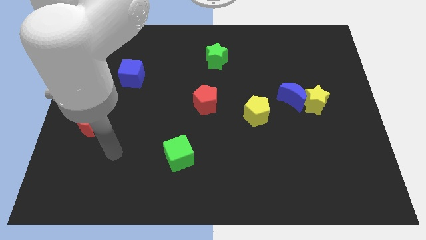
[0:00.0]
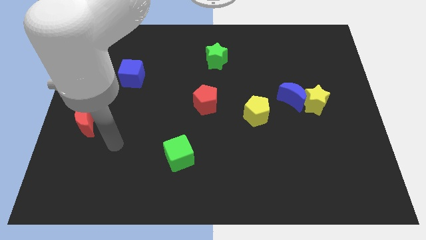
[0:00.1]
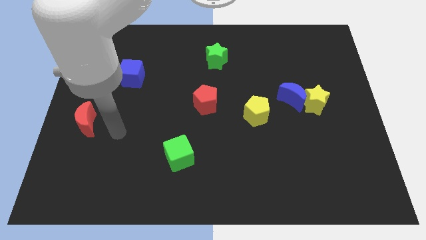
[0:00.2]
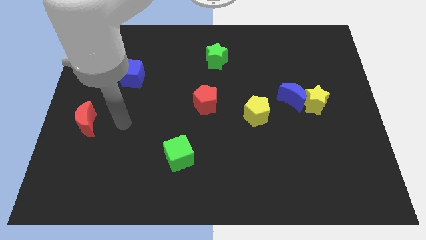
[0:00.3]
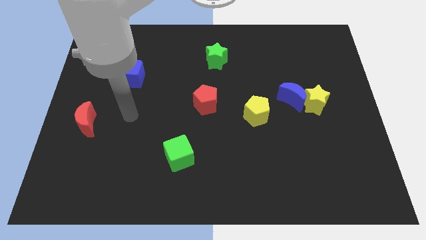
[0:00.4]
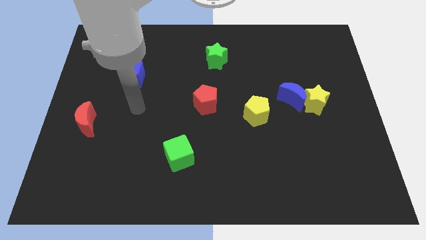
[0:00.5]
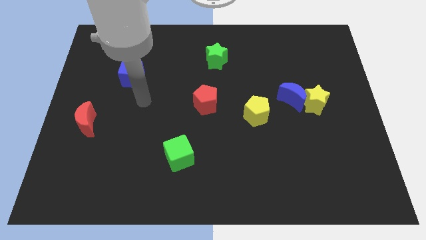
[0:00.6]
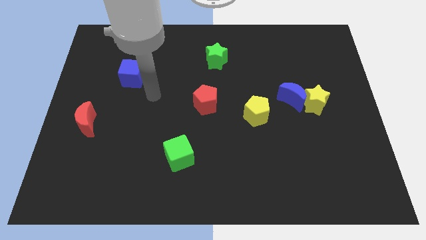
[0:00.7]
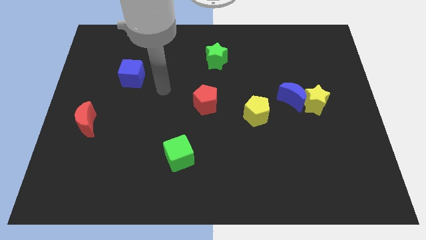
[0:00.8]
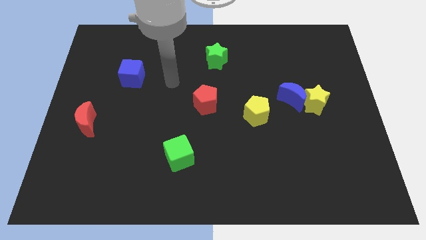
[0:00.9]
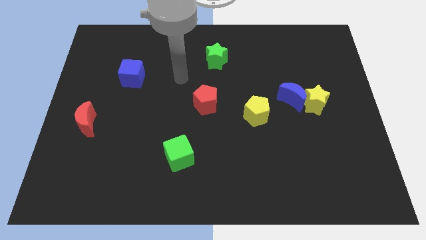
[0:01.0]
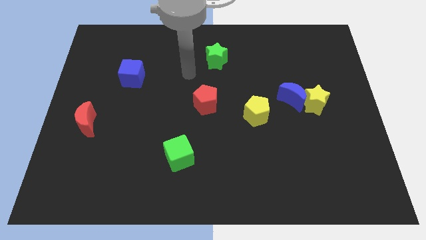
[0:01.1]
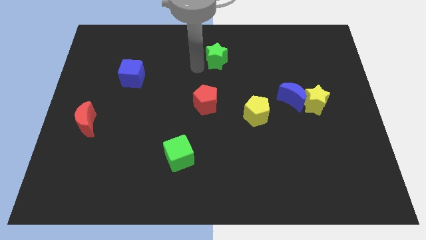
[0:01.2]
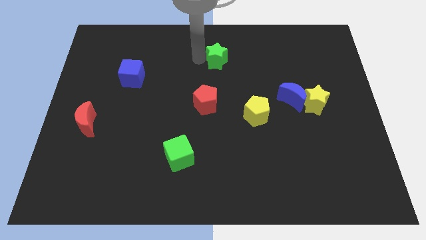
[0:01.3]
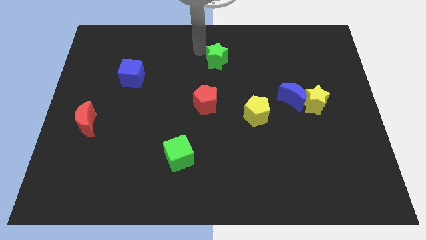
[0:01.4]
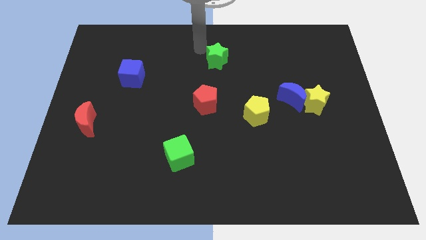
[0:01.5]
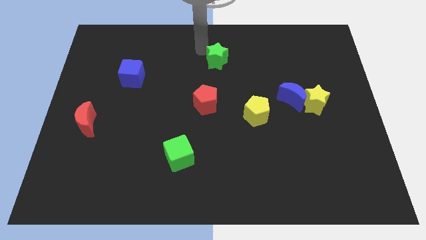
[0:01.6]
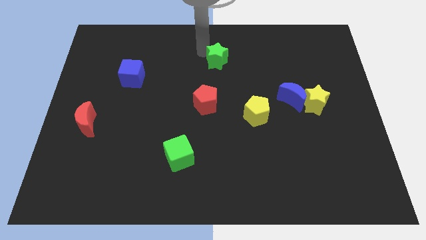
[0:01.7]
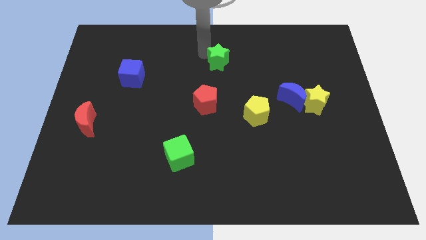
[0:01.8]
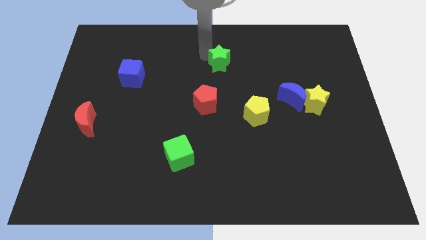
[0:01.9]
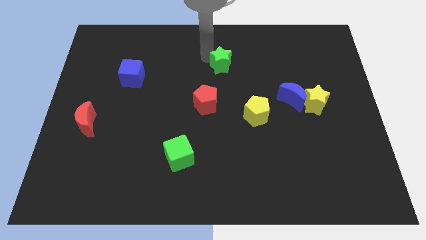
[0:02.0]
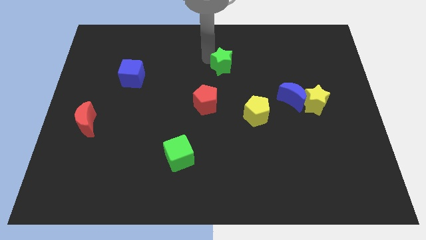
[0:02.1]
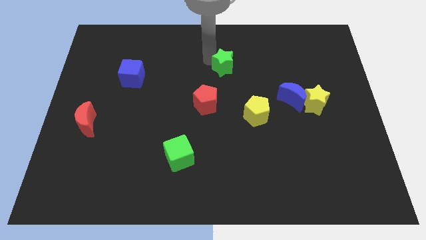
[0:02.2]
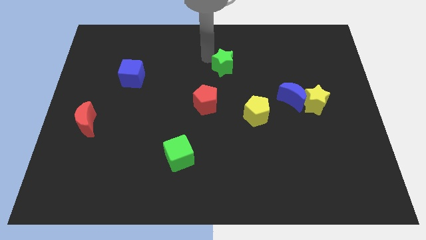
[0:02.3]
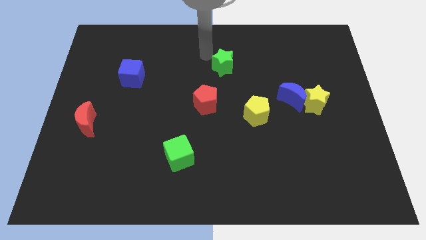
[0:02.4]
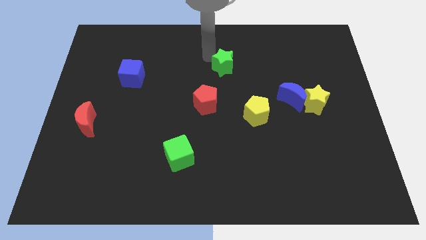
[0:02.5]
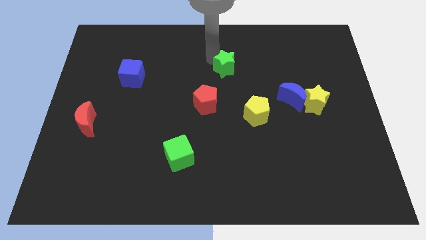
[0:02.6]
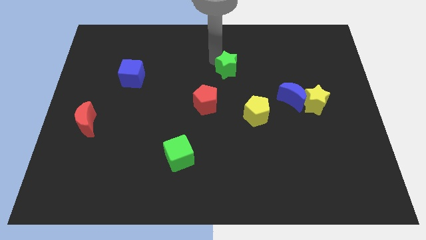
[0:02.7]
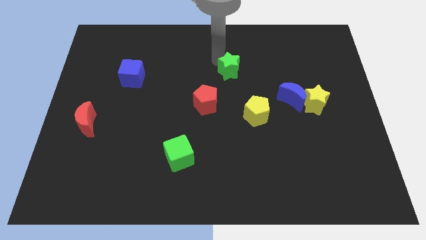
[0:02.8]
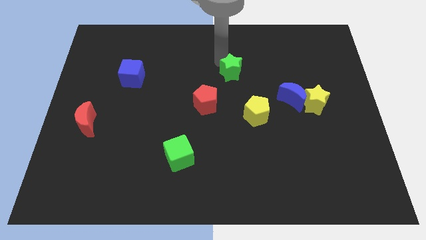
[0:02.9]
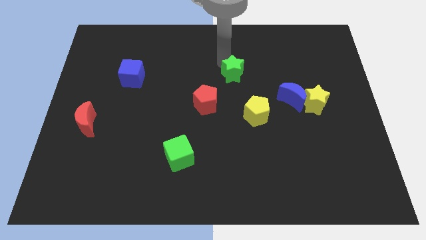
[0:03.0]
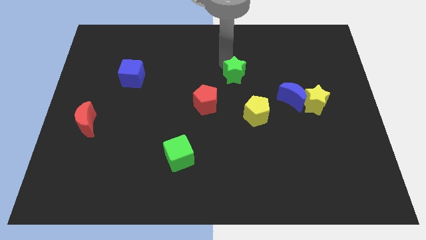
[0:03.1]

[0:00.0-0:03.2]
slightly push the green star downwards and right diagonally

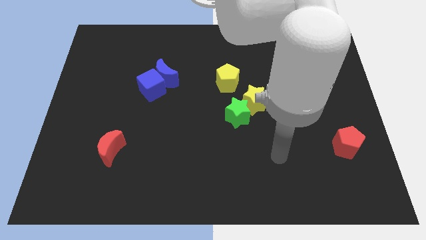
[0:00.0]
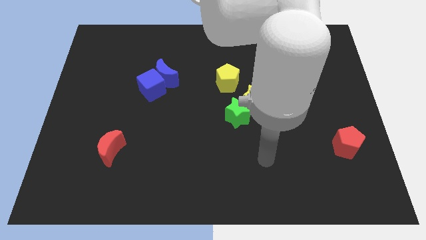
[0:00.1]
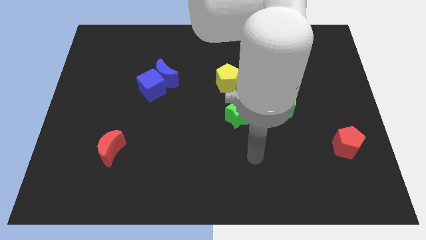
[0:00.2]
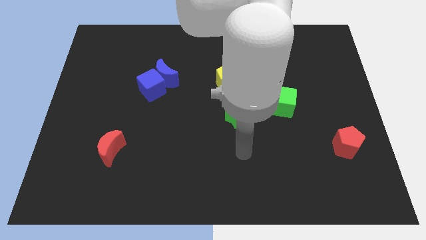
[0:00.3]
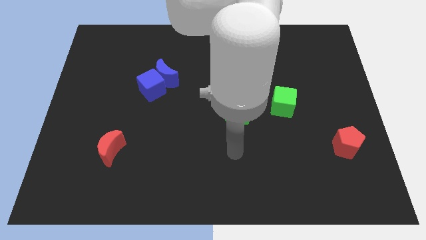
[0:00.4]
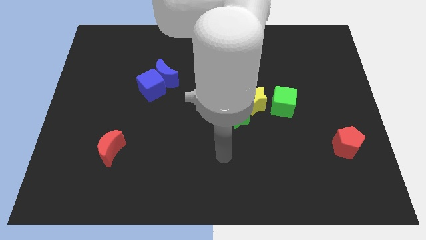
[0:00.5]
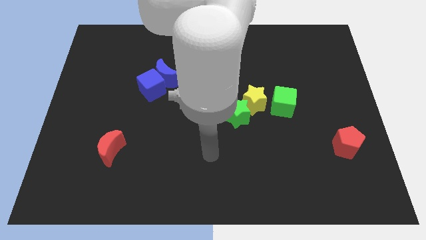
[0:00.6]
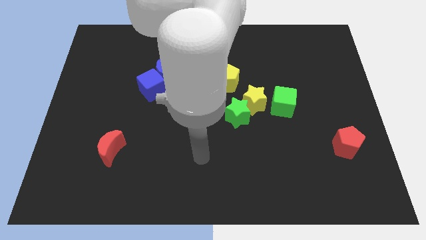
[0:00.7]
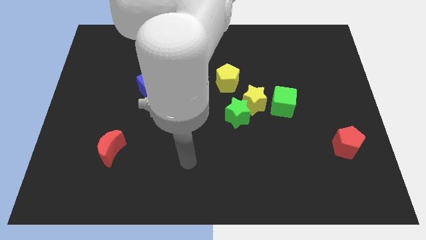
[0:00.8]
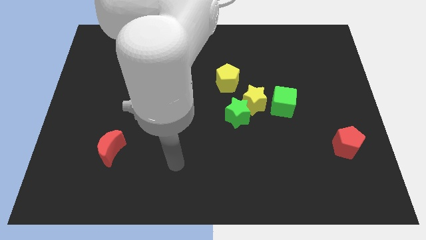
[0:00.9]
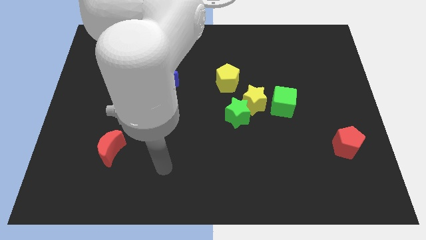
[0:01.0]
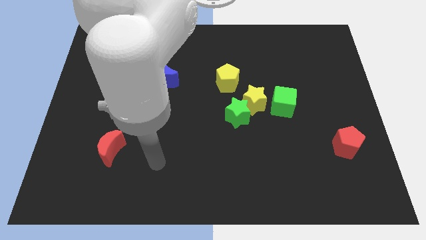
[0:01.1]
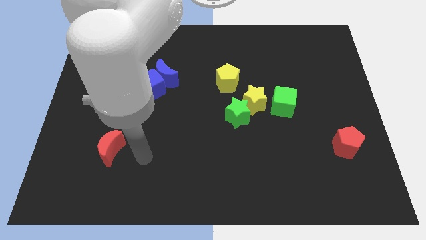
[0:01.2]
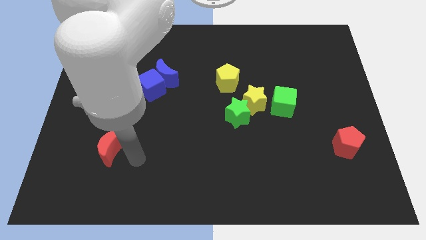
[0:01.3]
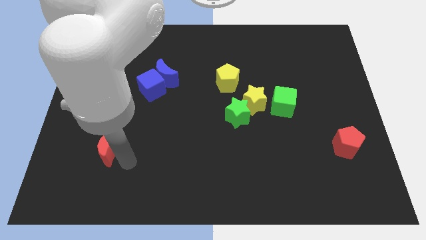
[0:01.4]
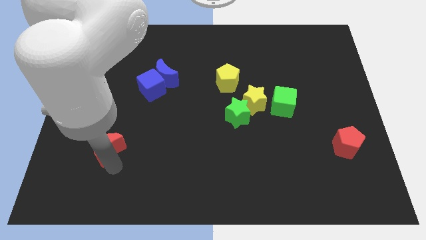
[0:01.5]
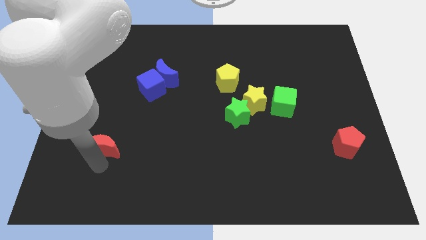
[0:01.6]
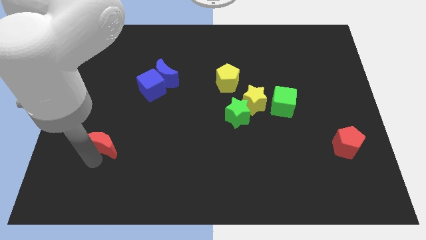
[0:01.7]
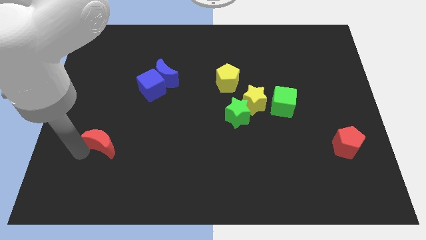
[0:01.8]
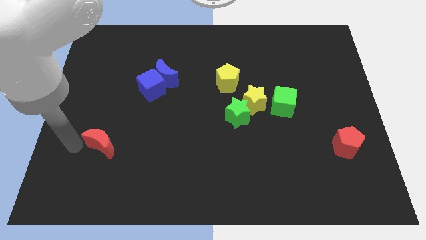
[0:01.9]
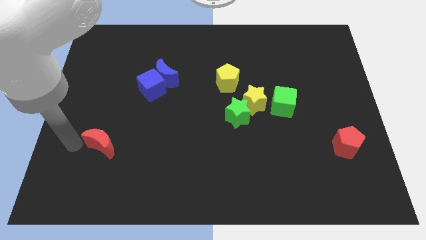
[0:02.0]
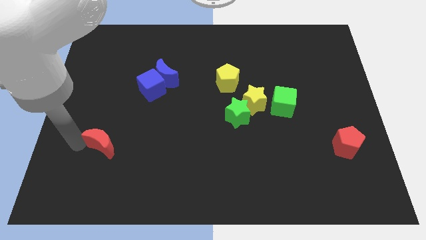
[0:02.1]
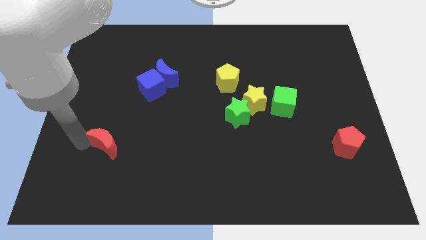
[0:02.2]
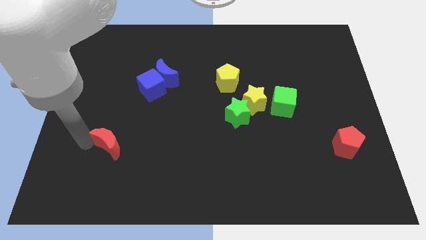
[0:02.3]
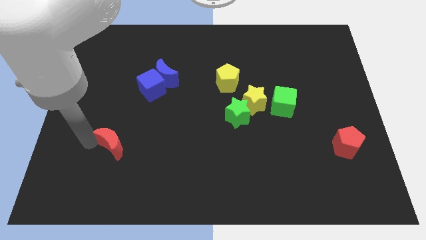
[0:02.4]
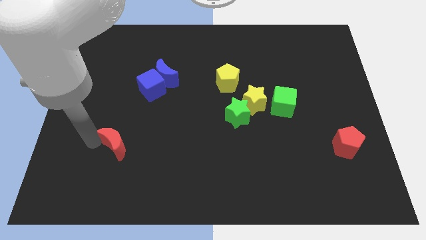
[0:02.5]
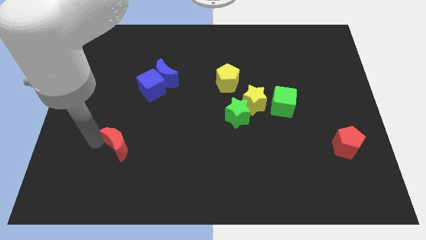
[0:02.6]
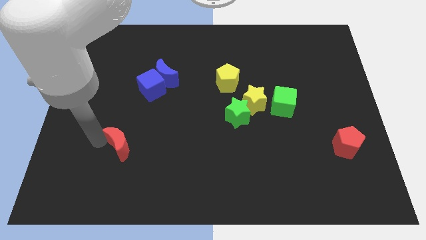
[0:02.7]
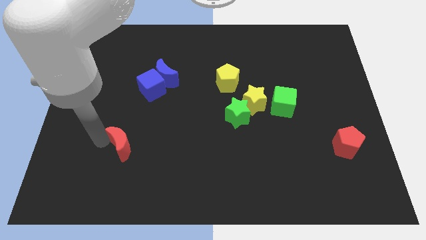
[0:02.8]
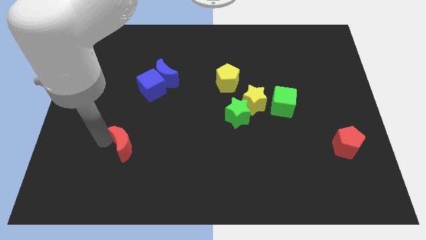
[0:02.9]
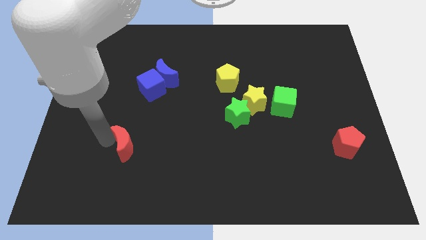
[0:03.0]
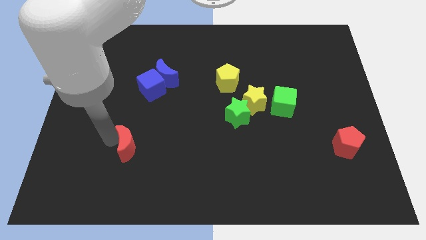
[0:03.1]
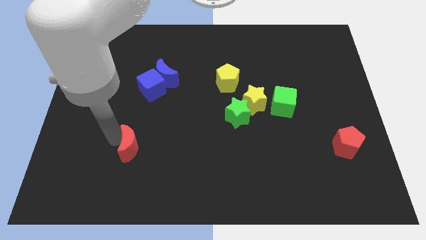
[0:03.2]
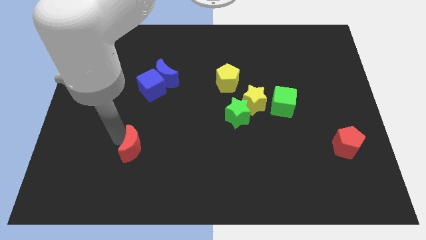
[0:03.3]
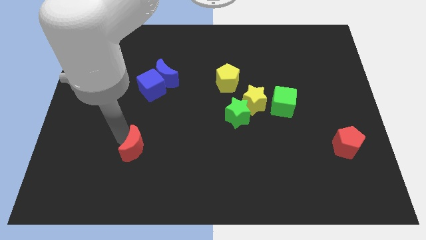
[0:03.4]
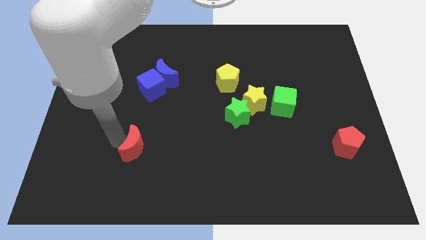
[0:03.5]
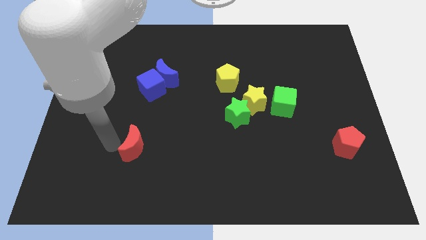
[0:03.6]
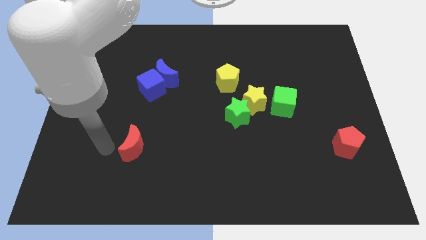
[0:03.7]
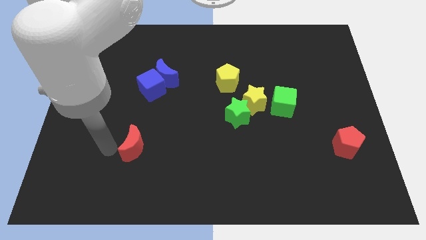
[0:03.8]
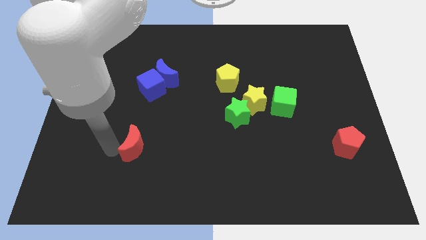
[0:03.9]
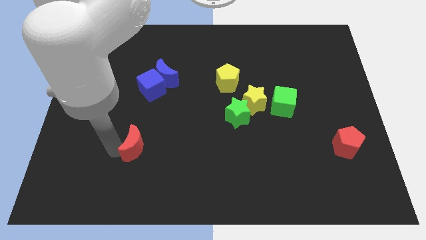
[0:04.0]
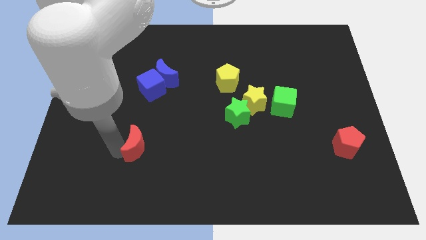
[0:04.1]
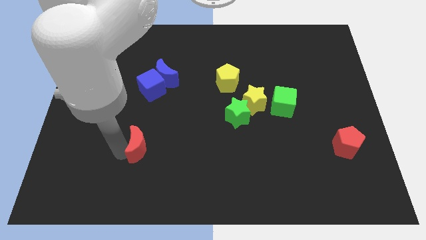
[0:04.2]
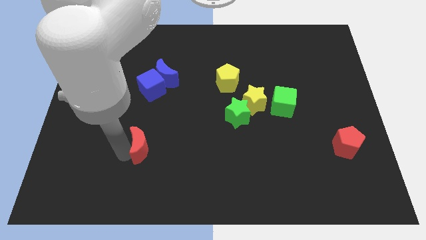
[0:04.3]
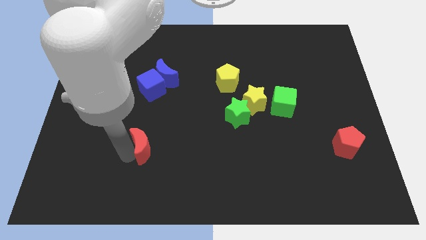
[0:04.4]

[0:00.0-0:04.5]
move the red moon to the right a little bit

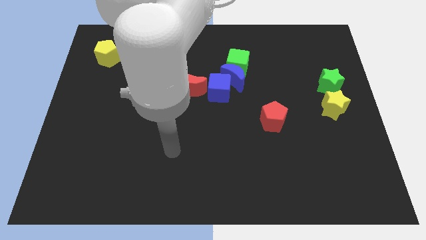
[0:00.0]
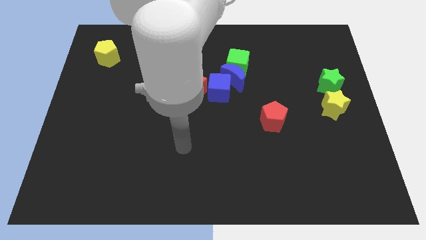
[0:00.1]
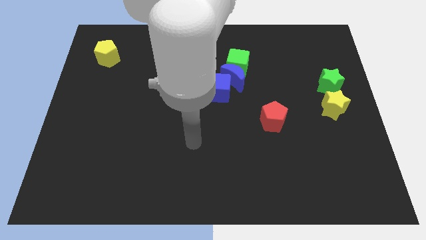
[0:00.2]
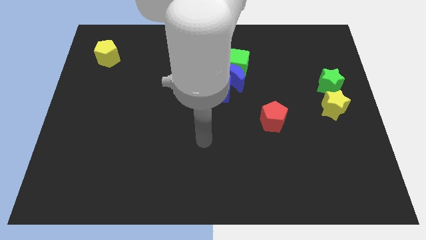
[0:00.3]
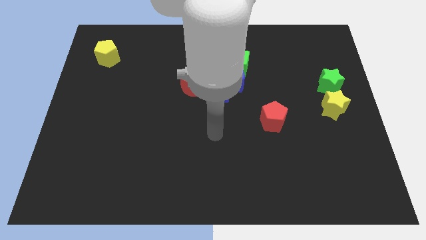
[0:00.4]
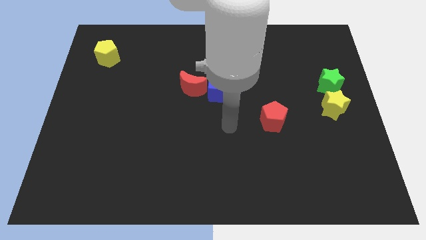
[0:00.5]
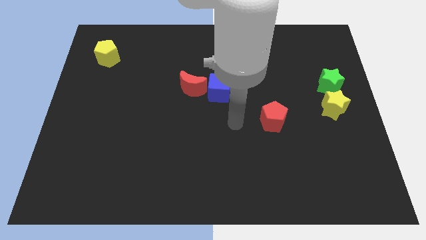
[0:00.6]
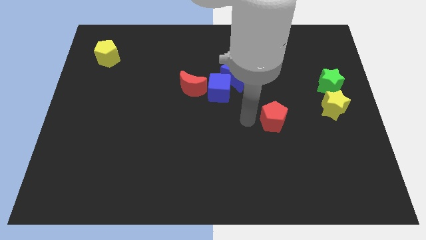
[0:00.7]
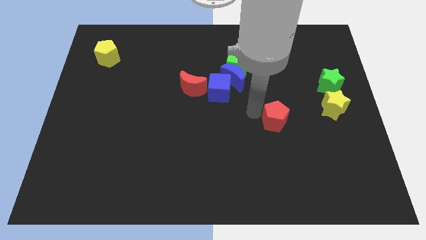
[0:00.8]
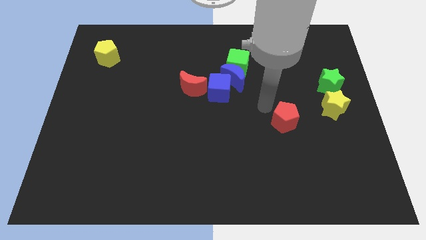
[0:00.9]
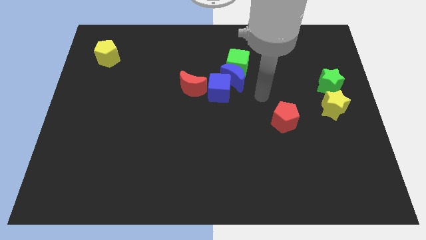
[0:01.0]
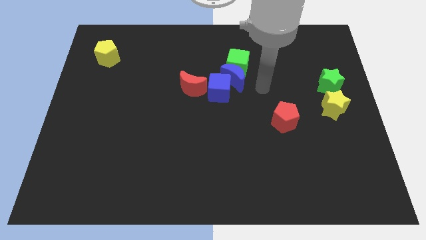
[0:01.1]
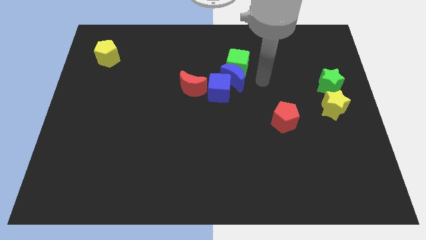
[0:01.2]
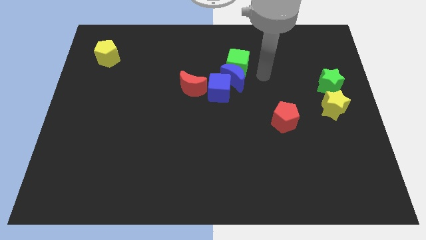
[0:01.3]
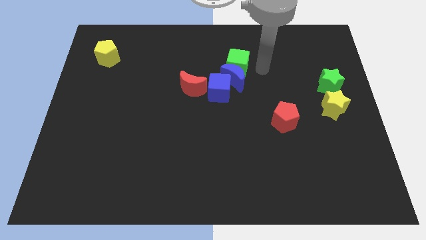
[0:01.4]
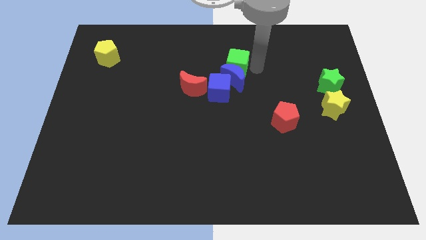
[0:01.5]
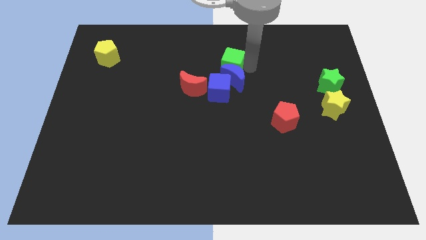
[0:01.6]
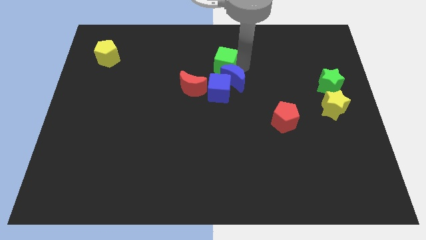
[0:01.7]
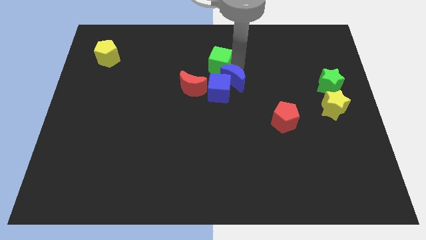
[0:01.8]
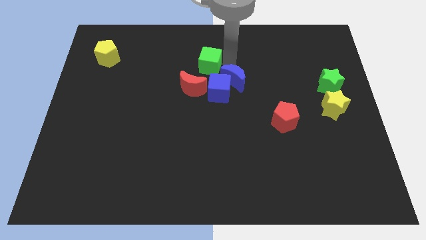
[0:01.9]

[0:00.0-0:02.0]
push the green cube left a bit
